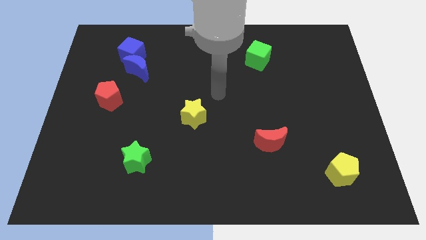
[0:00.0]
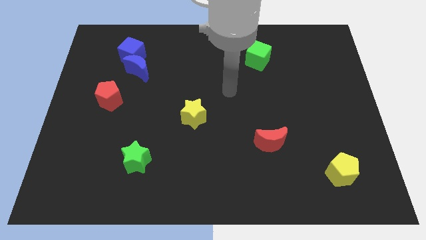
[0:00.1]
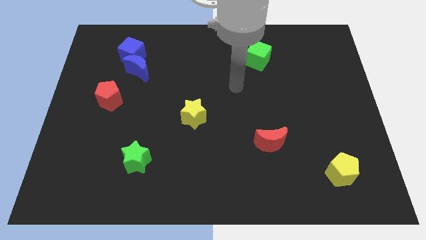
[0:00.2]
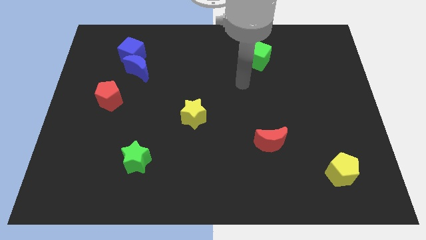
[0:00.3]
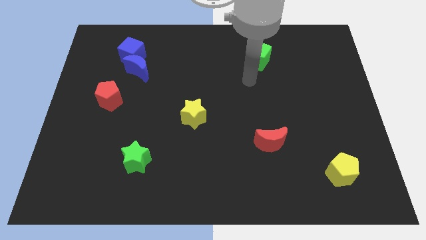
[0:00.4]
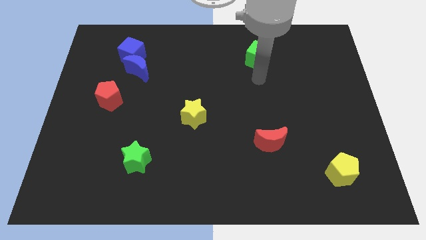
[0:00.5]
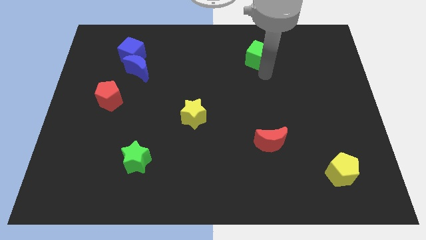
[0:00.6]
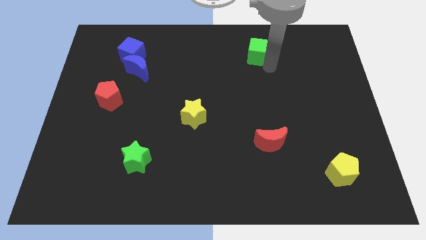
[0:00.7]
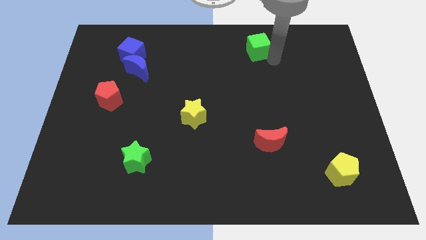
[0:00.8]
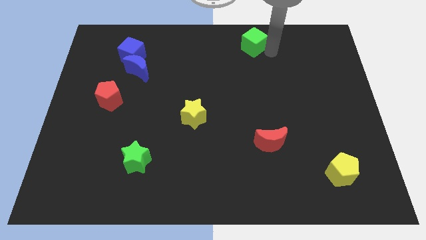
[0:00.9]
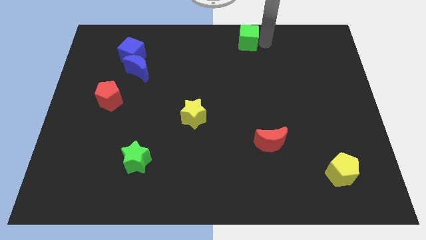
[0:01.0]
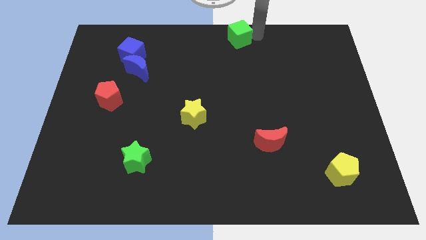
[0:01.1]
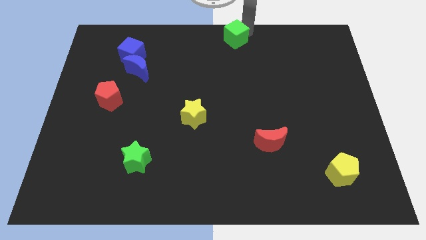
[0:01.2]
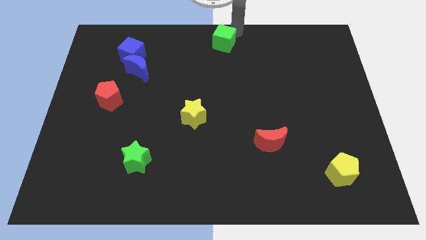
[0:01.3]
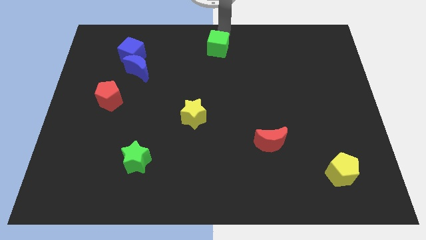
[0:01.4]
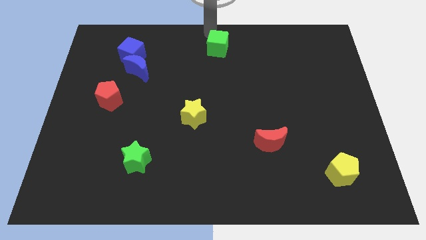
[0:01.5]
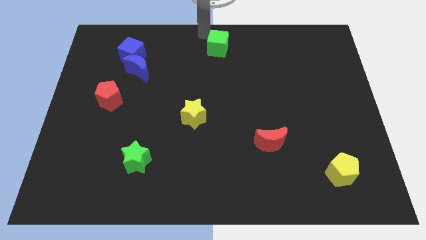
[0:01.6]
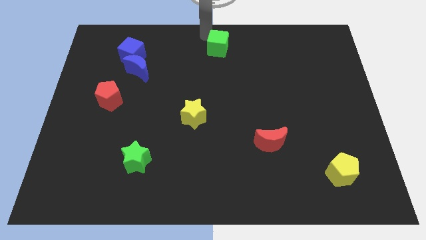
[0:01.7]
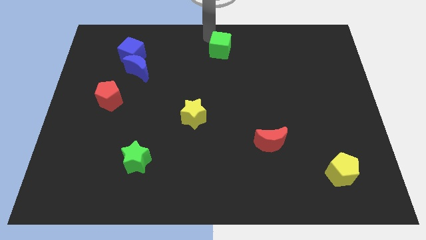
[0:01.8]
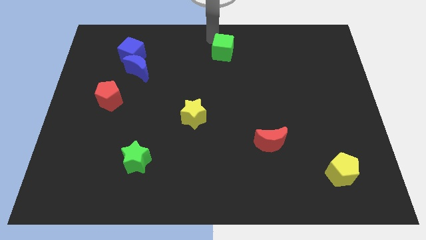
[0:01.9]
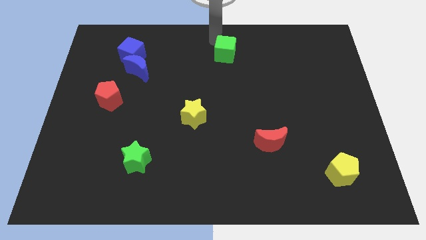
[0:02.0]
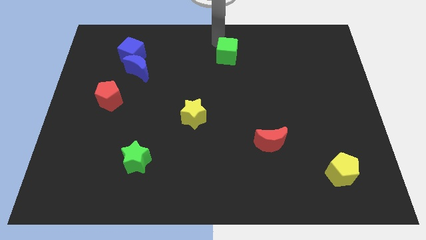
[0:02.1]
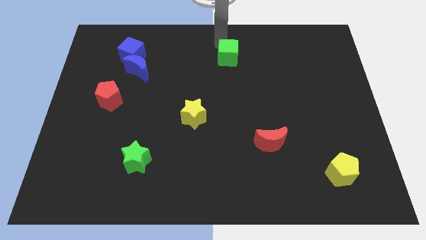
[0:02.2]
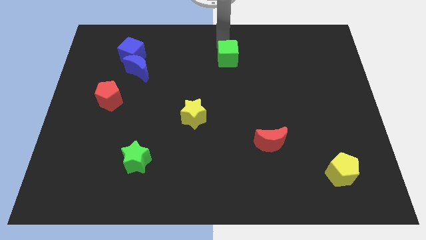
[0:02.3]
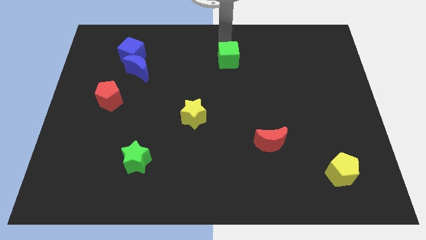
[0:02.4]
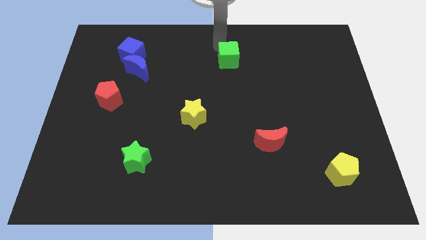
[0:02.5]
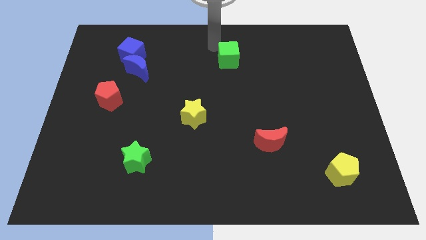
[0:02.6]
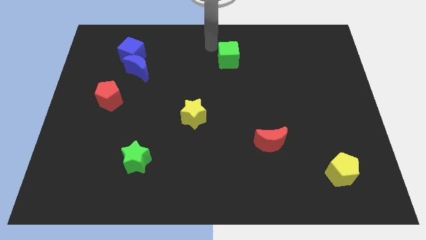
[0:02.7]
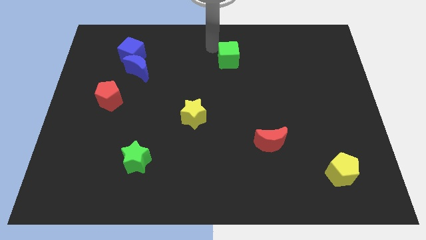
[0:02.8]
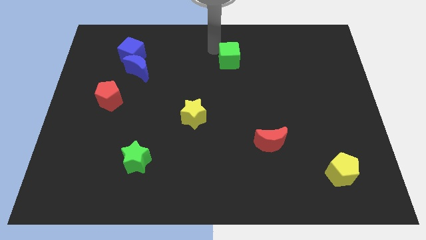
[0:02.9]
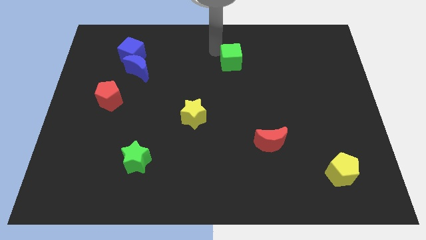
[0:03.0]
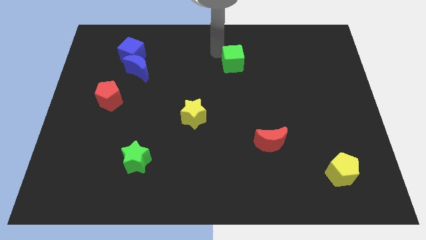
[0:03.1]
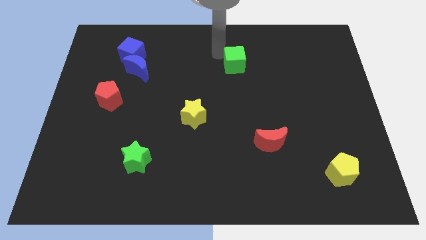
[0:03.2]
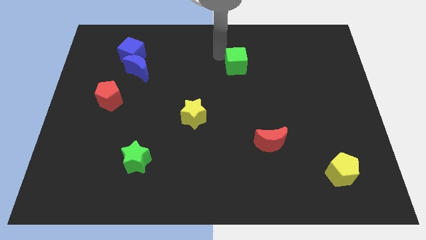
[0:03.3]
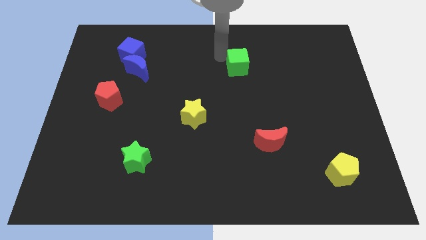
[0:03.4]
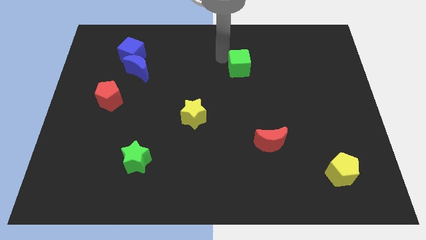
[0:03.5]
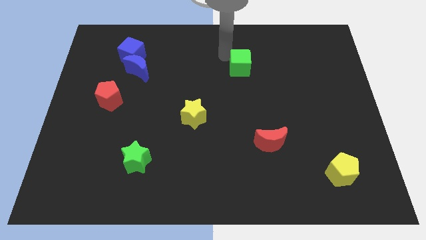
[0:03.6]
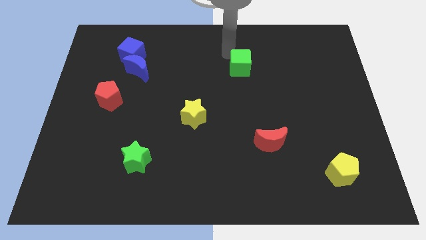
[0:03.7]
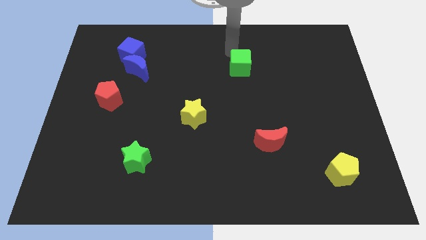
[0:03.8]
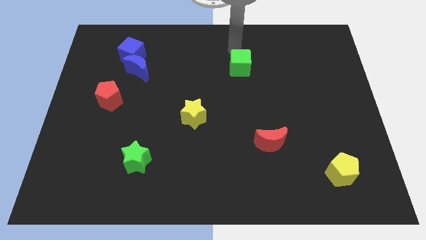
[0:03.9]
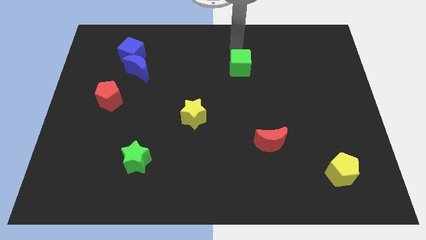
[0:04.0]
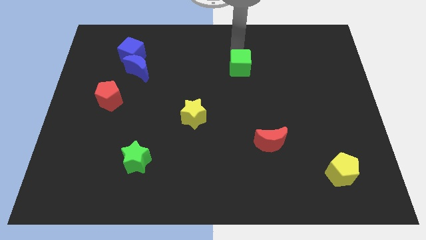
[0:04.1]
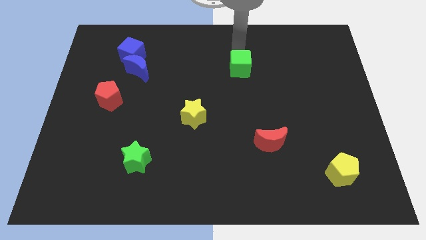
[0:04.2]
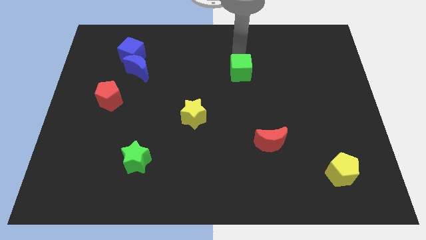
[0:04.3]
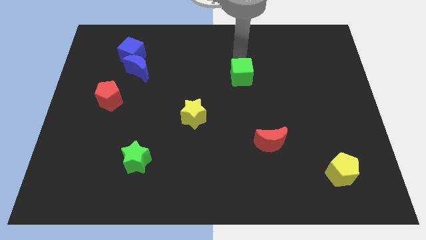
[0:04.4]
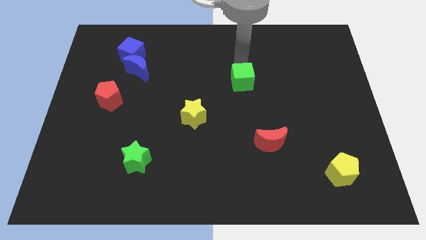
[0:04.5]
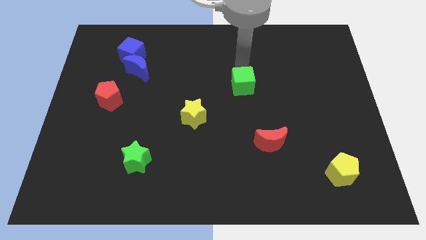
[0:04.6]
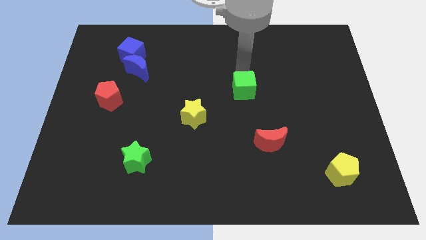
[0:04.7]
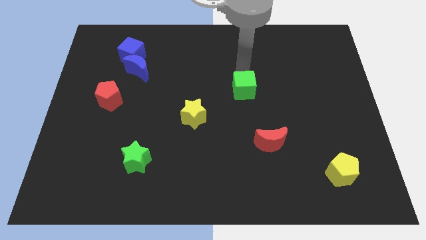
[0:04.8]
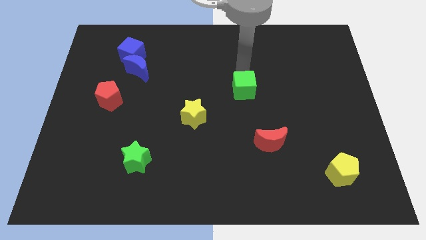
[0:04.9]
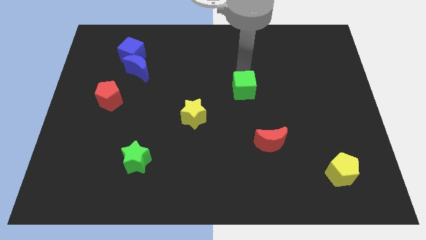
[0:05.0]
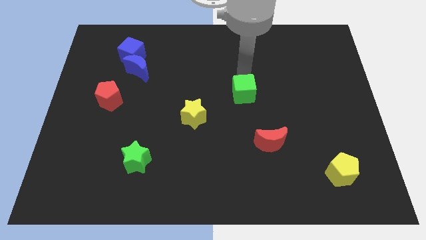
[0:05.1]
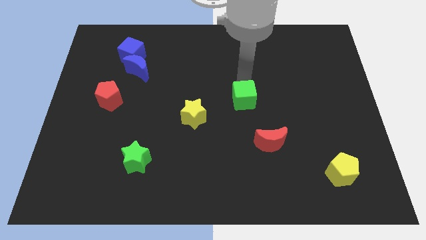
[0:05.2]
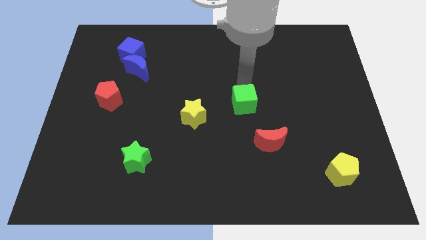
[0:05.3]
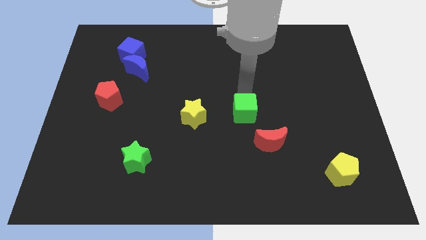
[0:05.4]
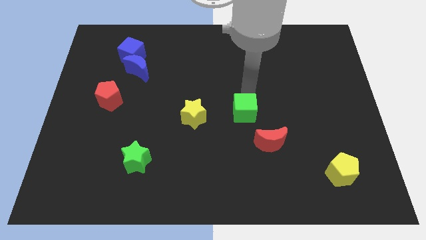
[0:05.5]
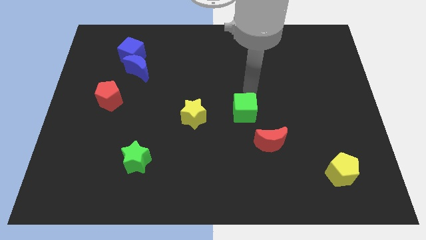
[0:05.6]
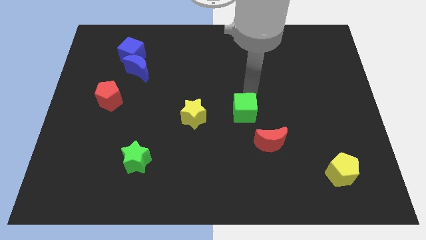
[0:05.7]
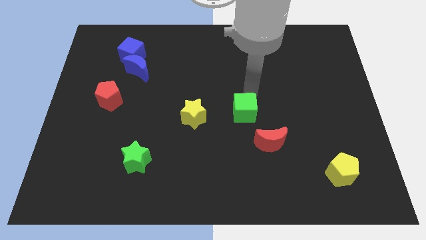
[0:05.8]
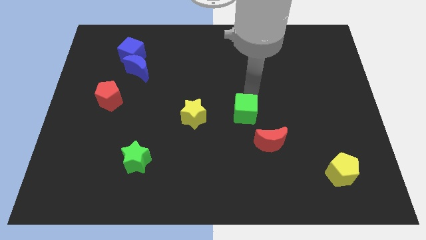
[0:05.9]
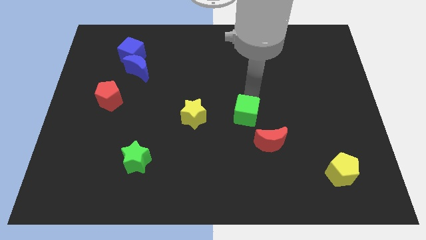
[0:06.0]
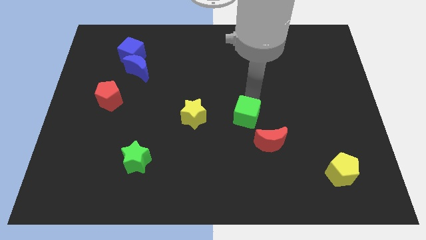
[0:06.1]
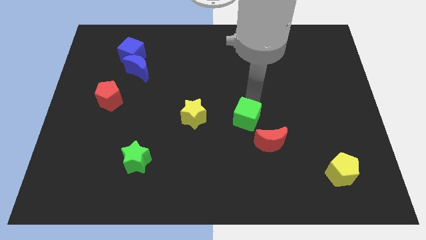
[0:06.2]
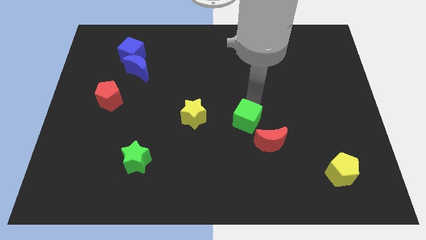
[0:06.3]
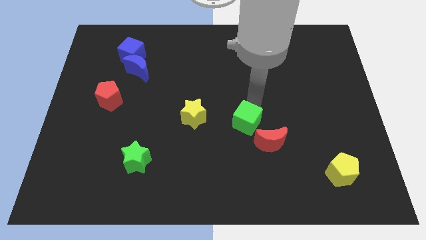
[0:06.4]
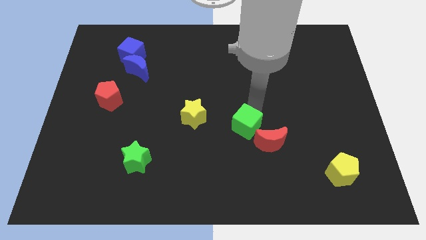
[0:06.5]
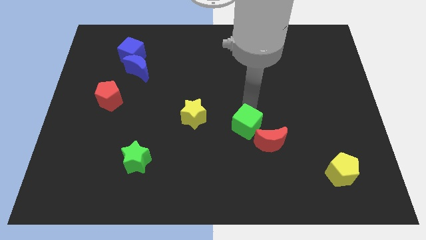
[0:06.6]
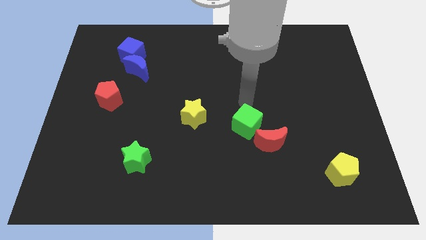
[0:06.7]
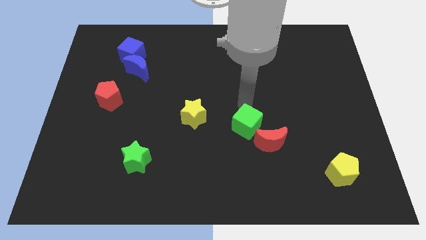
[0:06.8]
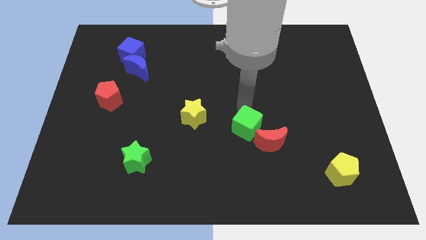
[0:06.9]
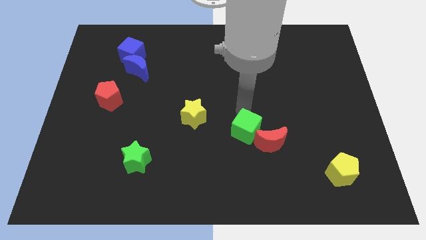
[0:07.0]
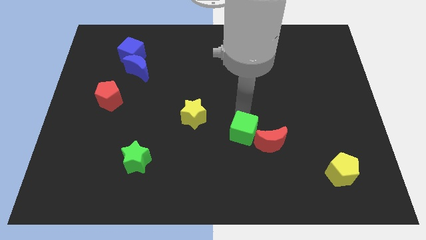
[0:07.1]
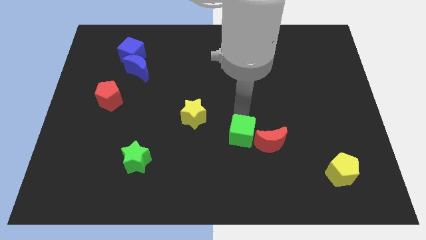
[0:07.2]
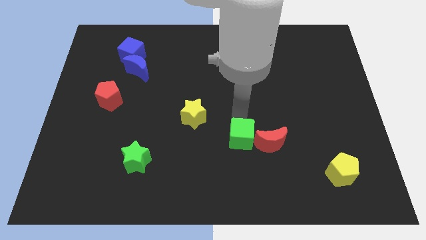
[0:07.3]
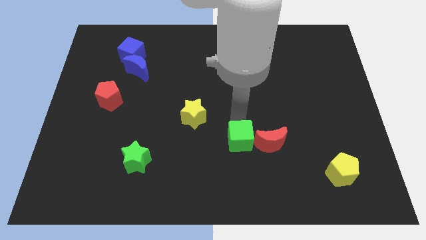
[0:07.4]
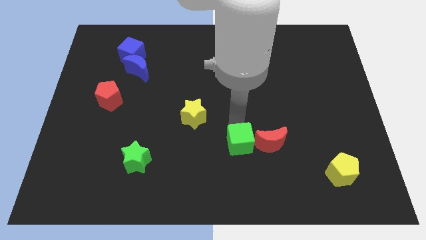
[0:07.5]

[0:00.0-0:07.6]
move the green cube to the bottom left of the red moon
